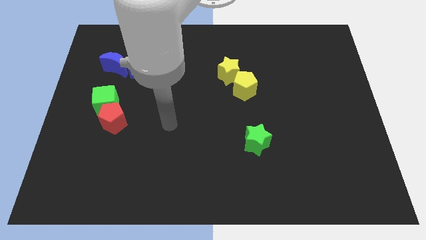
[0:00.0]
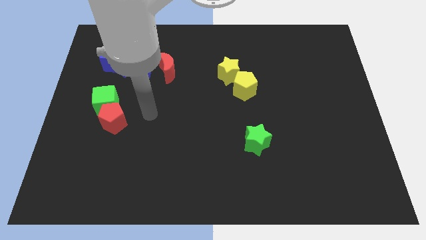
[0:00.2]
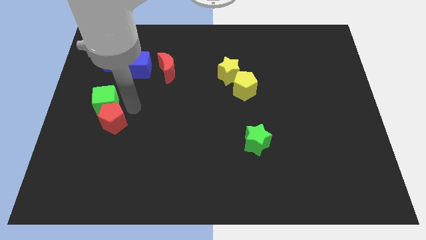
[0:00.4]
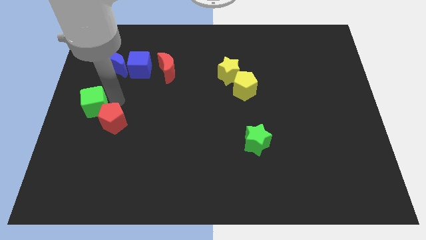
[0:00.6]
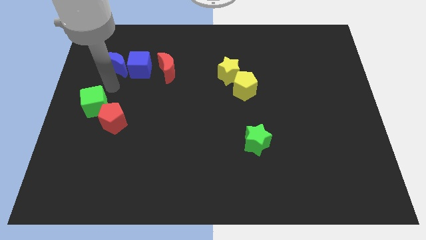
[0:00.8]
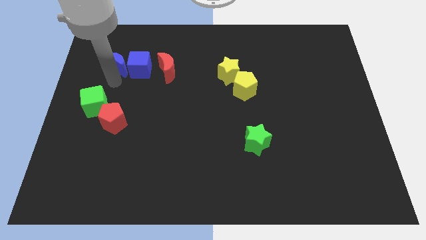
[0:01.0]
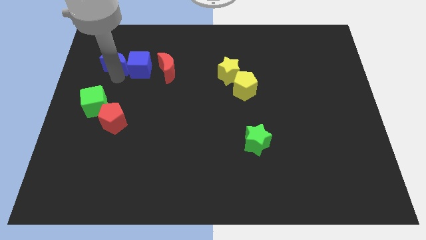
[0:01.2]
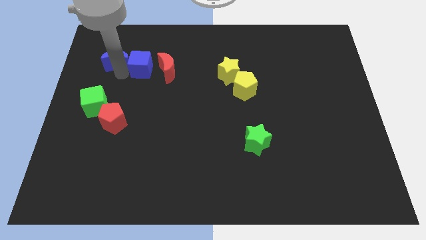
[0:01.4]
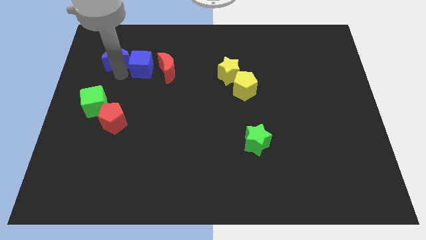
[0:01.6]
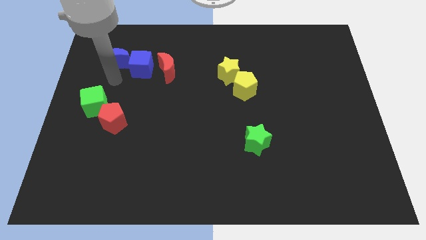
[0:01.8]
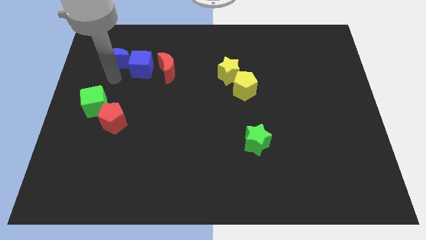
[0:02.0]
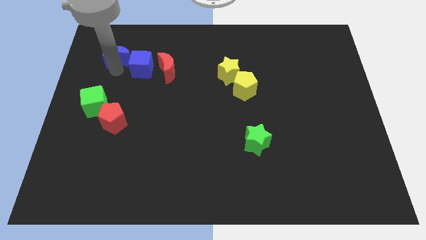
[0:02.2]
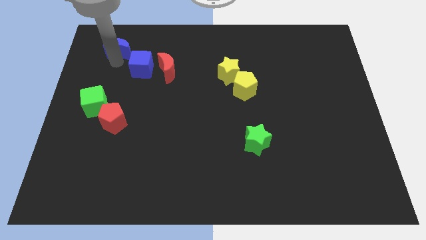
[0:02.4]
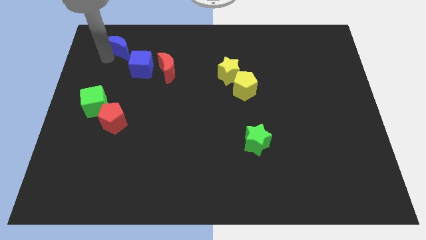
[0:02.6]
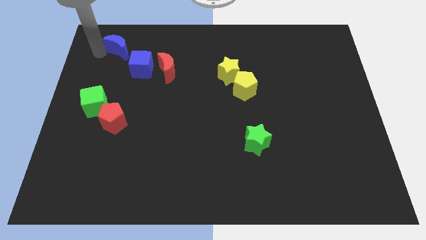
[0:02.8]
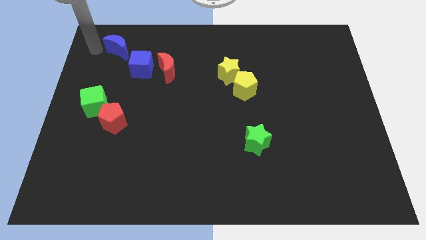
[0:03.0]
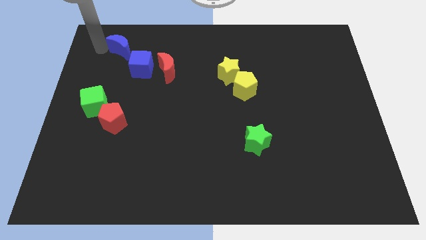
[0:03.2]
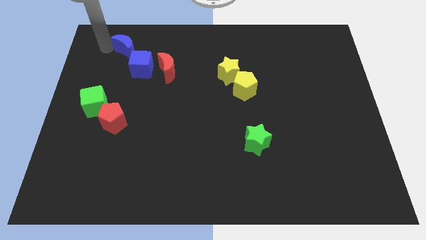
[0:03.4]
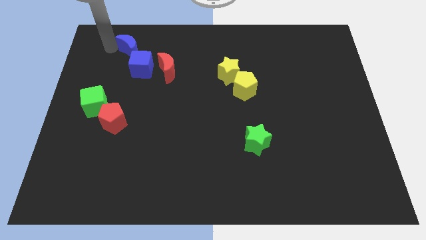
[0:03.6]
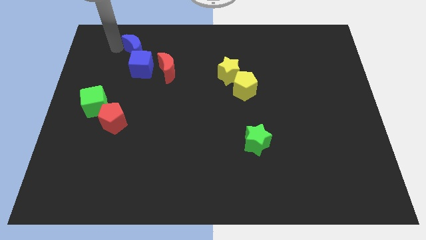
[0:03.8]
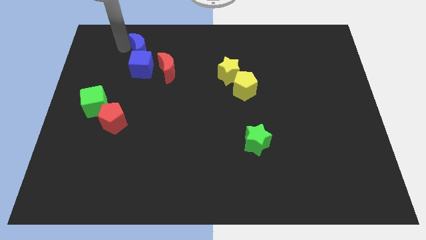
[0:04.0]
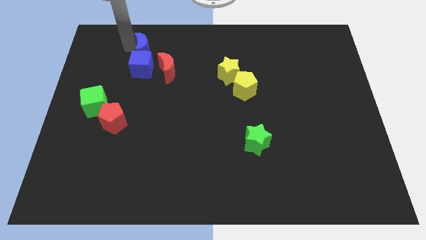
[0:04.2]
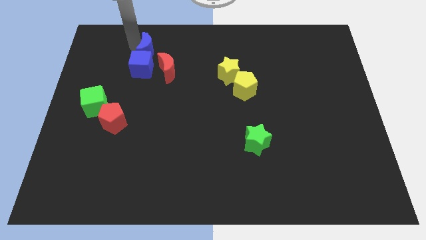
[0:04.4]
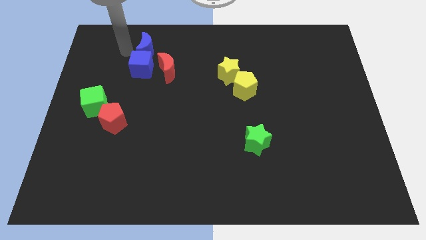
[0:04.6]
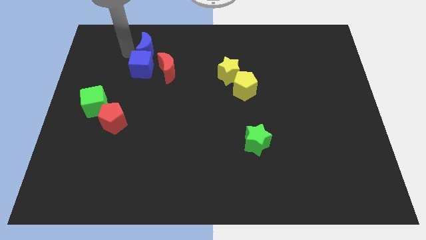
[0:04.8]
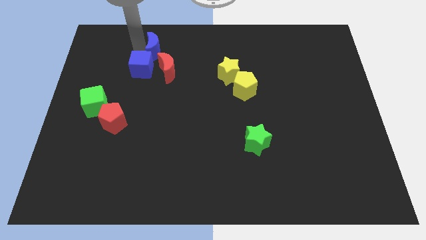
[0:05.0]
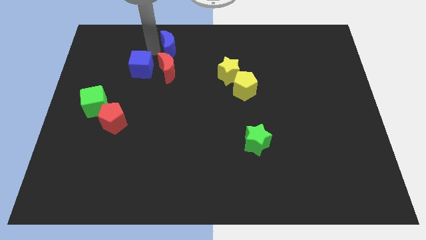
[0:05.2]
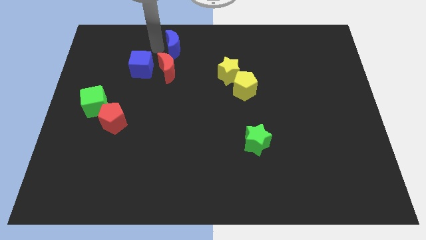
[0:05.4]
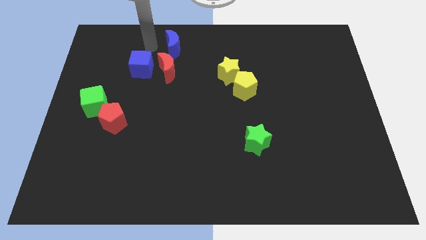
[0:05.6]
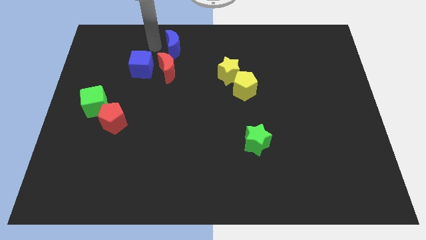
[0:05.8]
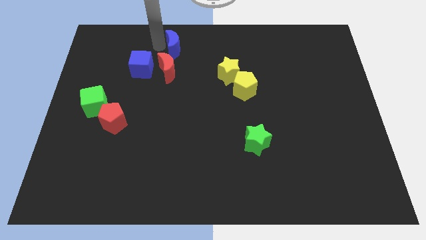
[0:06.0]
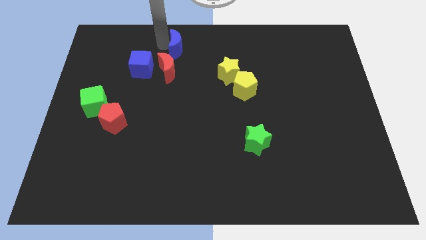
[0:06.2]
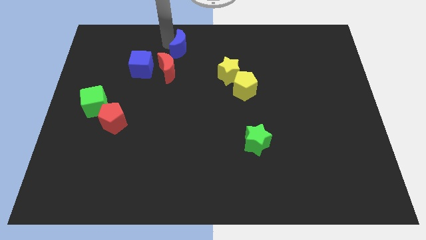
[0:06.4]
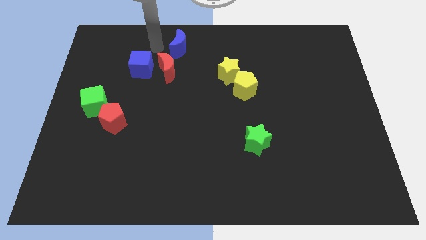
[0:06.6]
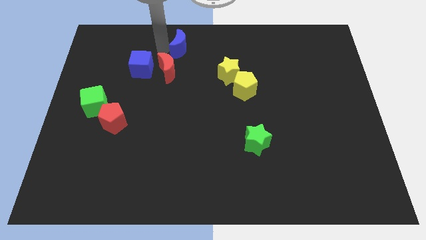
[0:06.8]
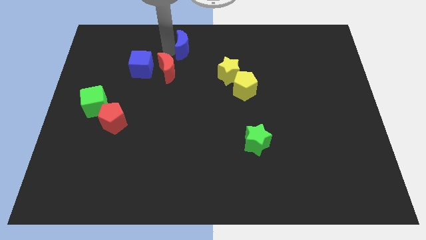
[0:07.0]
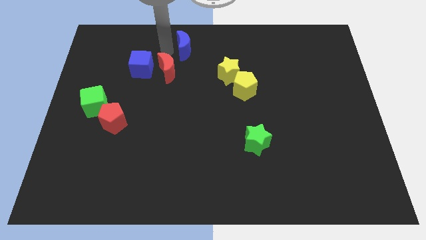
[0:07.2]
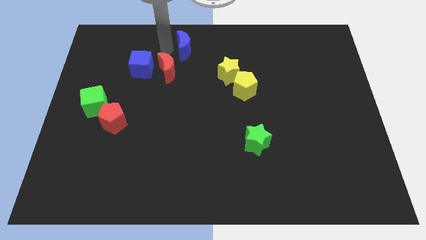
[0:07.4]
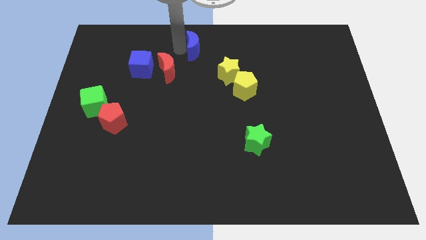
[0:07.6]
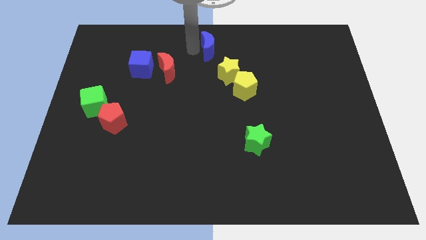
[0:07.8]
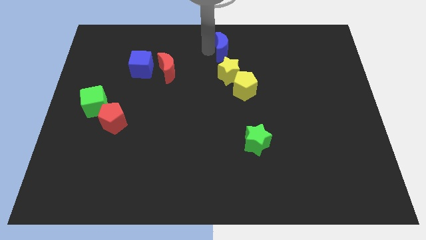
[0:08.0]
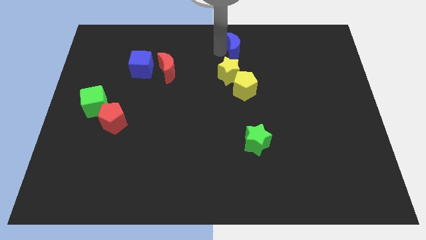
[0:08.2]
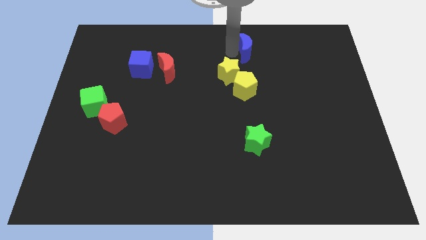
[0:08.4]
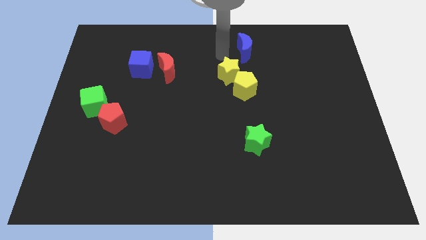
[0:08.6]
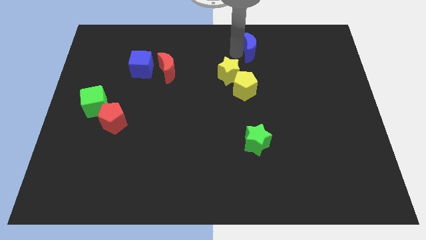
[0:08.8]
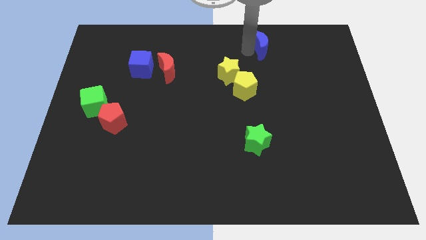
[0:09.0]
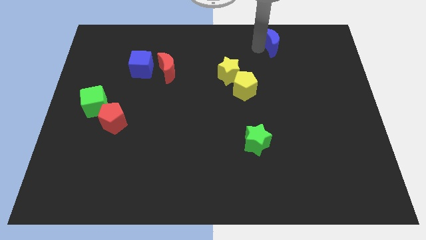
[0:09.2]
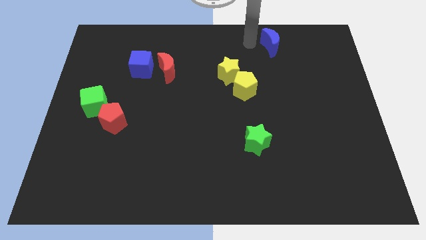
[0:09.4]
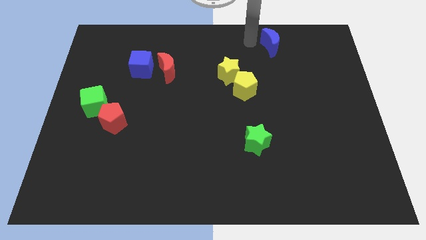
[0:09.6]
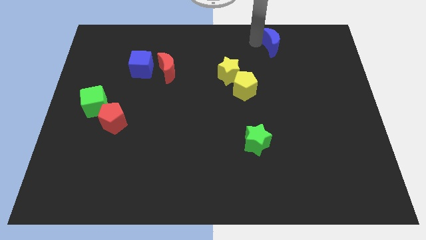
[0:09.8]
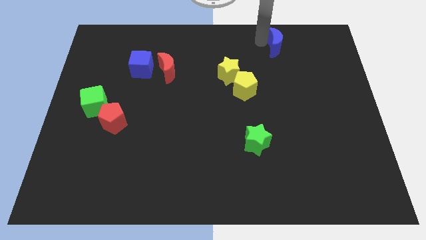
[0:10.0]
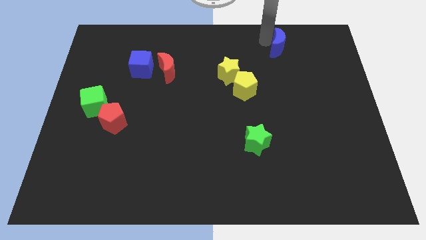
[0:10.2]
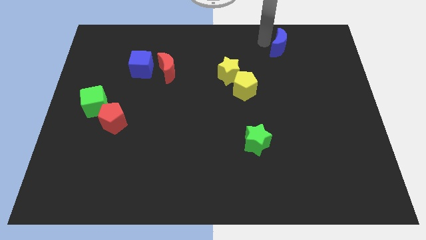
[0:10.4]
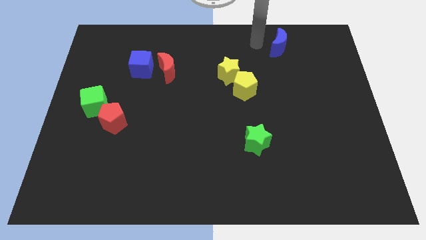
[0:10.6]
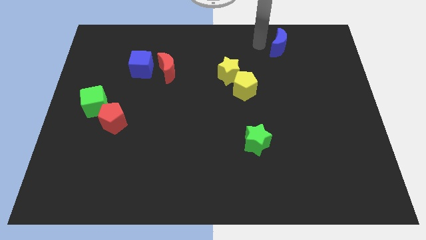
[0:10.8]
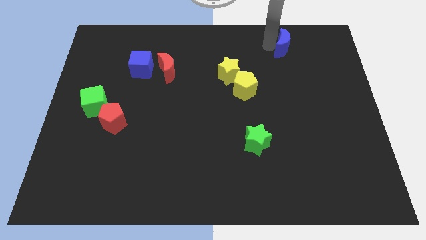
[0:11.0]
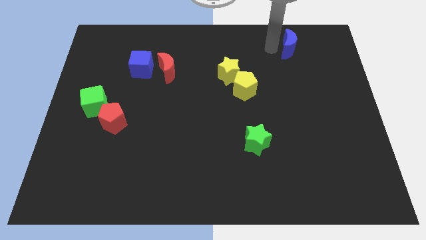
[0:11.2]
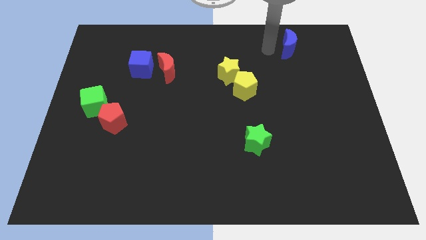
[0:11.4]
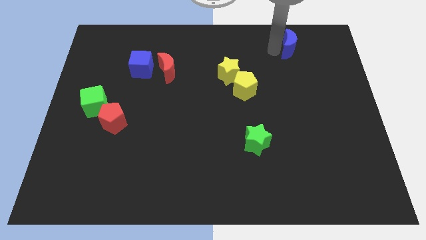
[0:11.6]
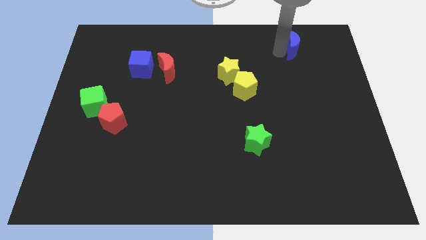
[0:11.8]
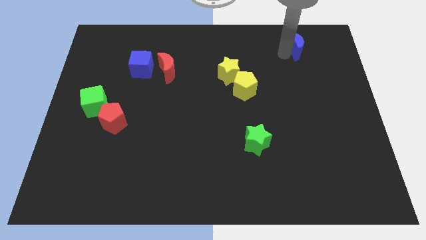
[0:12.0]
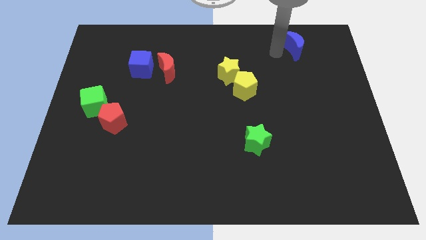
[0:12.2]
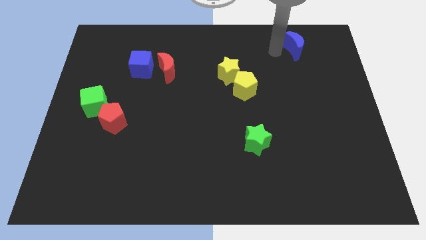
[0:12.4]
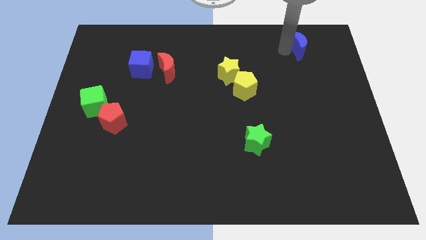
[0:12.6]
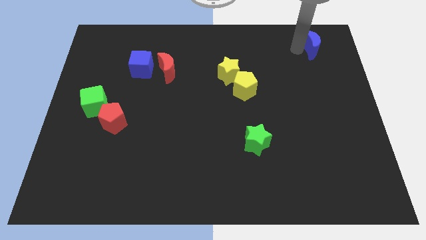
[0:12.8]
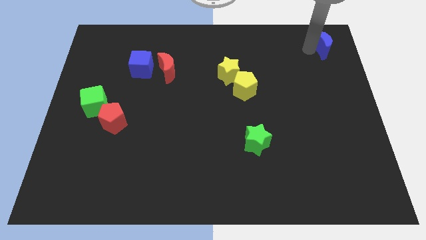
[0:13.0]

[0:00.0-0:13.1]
move the blue moon to the top right
